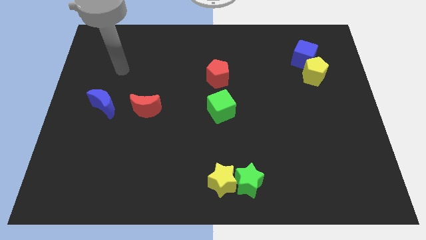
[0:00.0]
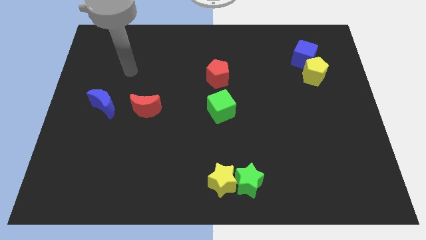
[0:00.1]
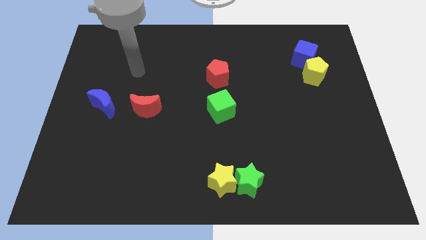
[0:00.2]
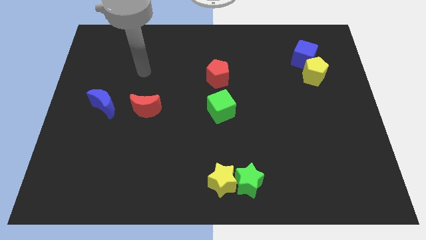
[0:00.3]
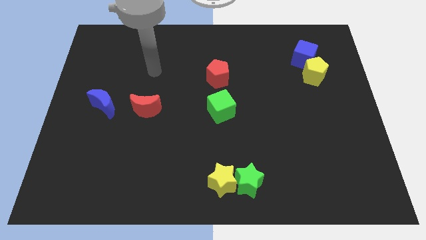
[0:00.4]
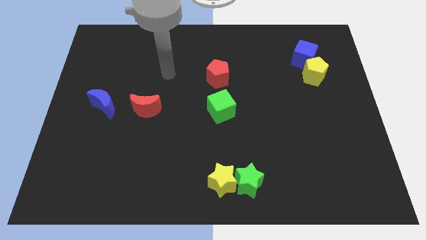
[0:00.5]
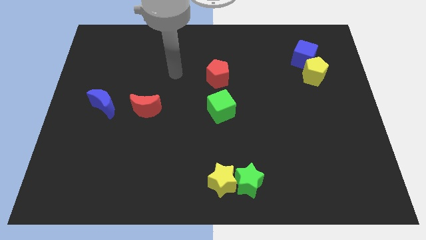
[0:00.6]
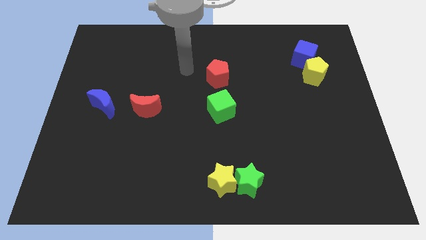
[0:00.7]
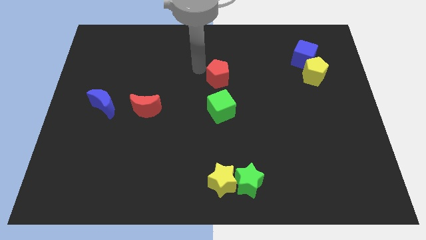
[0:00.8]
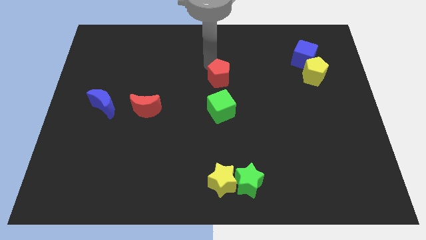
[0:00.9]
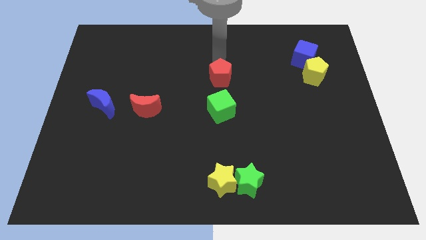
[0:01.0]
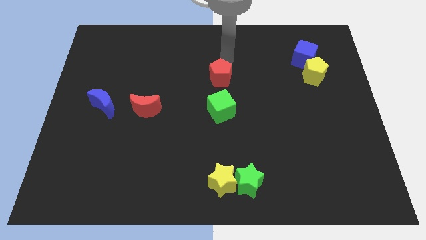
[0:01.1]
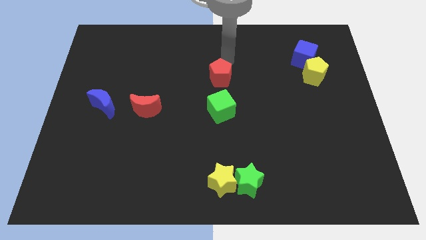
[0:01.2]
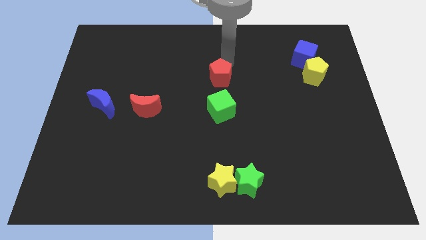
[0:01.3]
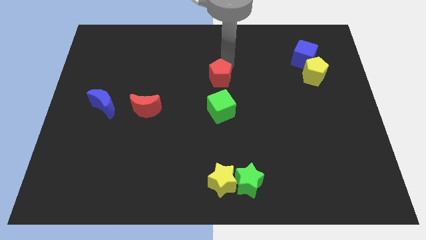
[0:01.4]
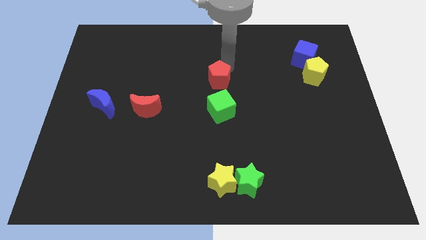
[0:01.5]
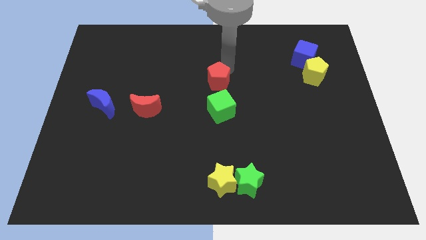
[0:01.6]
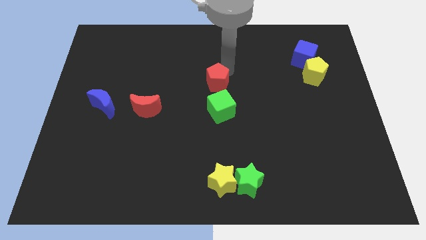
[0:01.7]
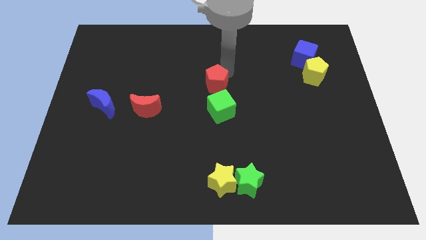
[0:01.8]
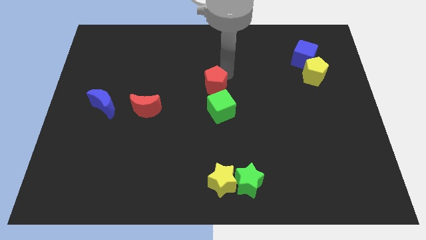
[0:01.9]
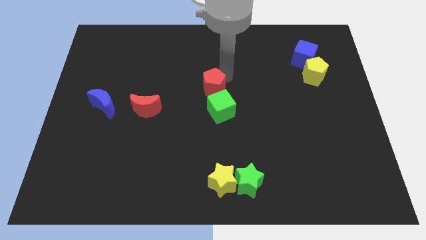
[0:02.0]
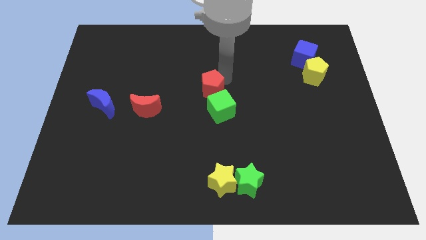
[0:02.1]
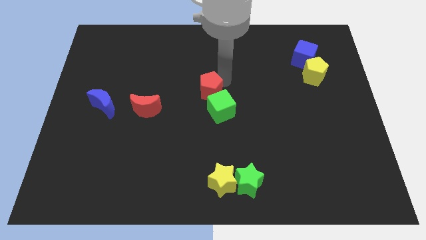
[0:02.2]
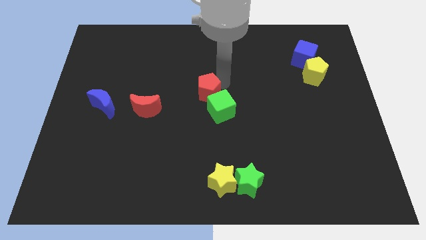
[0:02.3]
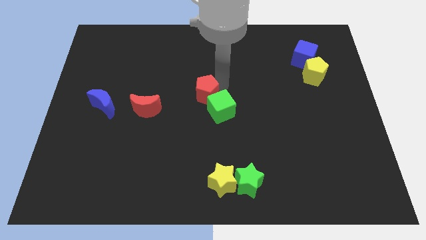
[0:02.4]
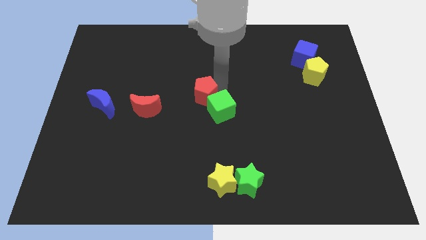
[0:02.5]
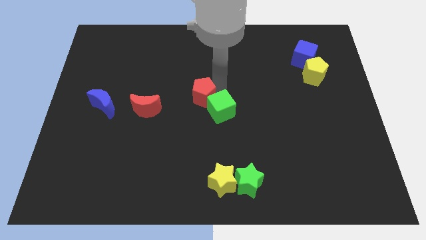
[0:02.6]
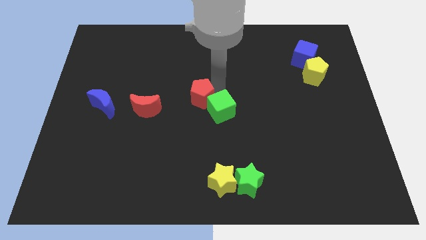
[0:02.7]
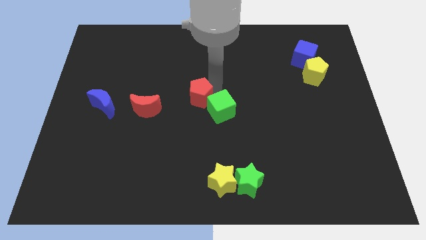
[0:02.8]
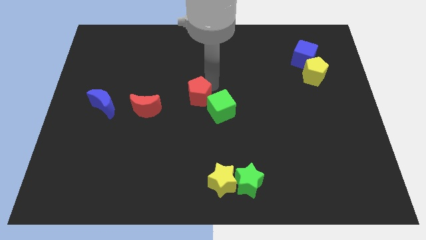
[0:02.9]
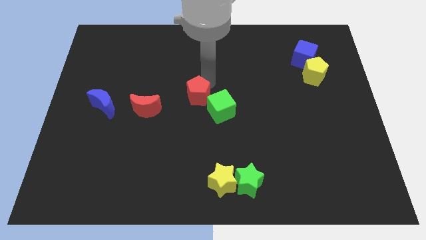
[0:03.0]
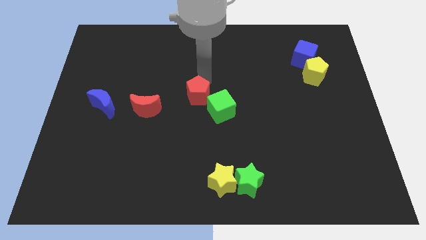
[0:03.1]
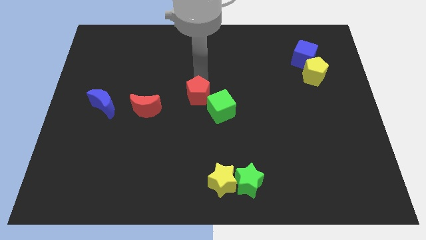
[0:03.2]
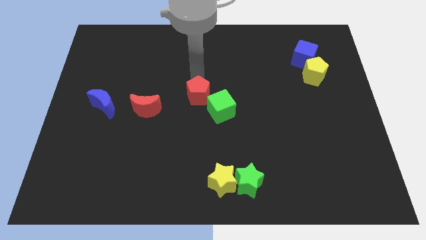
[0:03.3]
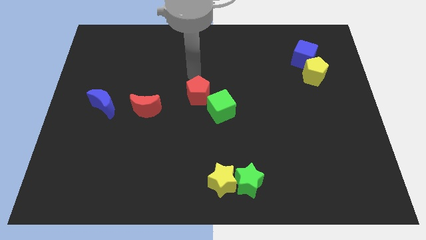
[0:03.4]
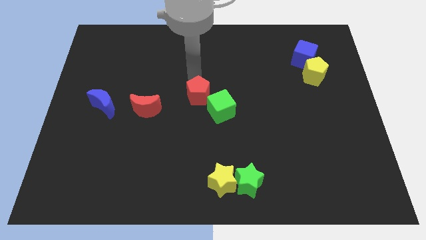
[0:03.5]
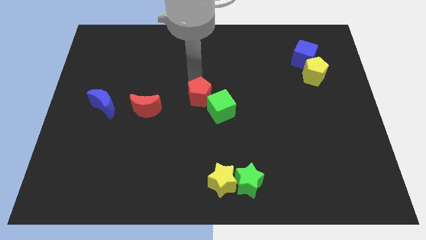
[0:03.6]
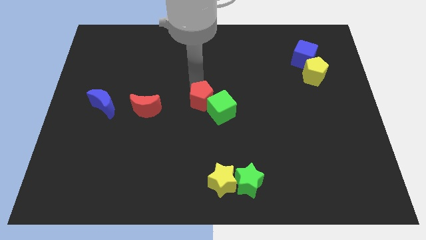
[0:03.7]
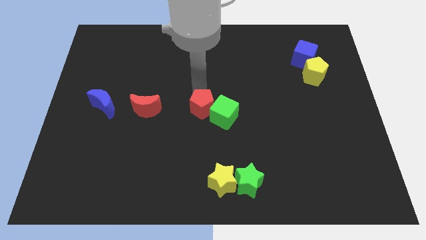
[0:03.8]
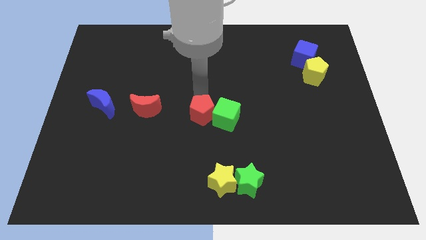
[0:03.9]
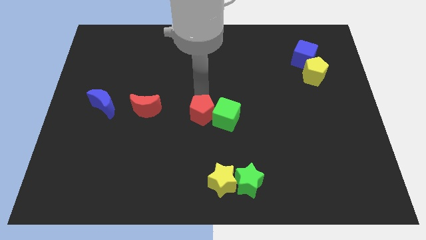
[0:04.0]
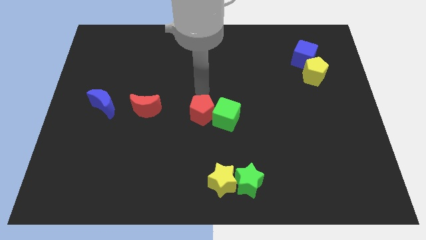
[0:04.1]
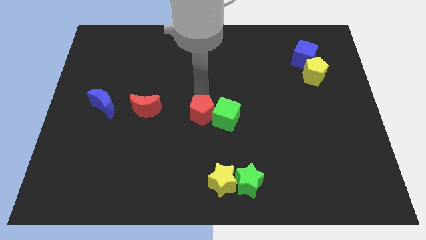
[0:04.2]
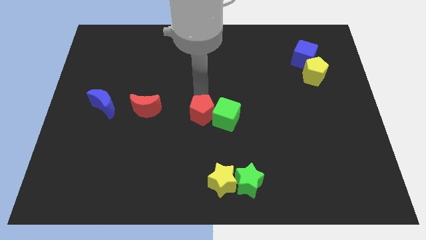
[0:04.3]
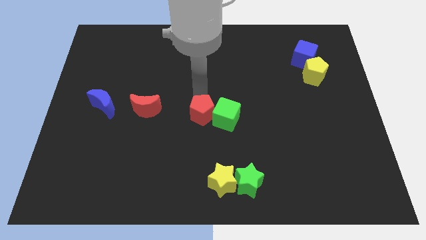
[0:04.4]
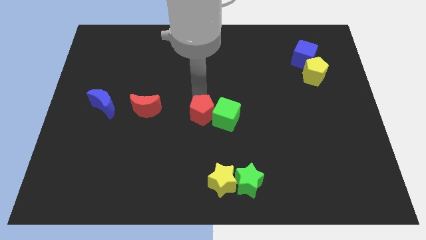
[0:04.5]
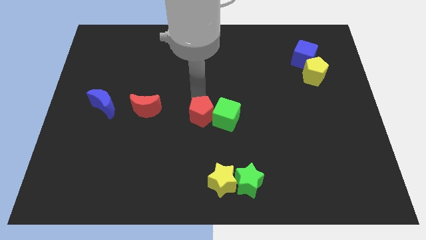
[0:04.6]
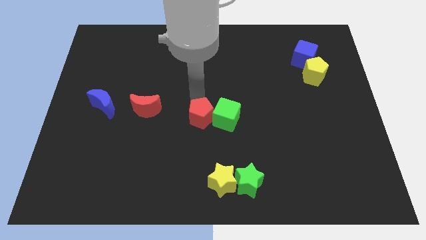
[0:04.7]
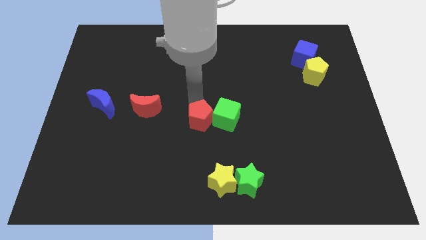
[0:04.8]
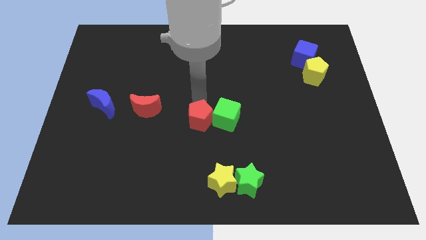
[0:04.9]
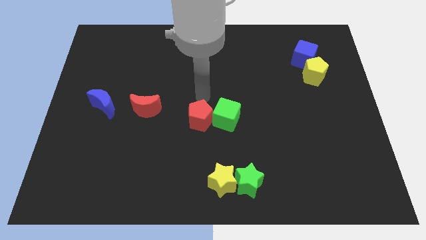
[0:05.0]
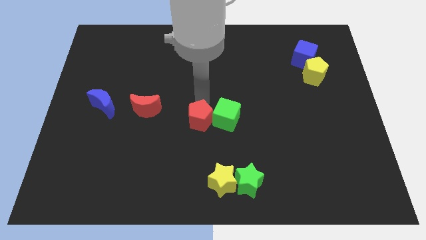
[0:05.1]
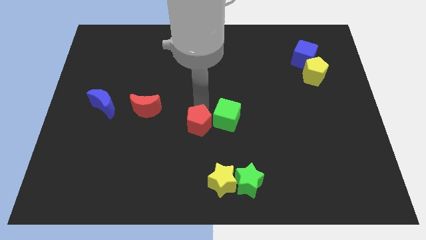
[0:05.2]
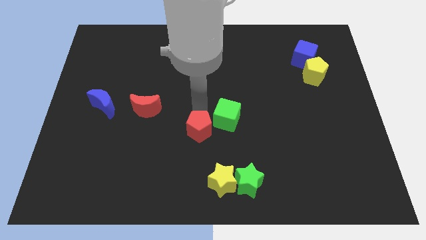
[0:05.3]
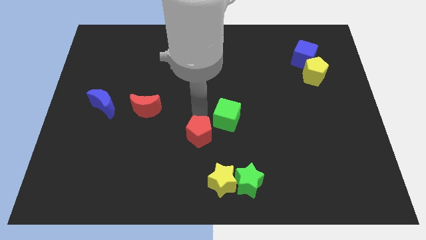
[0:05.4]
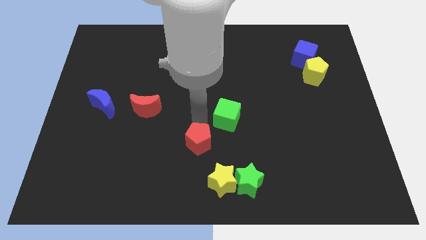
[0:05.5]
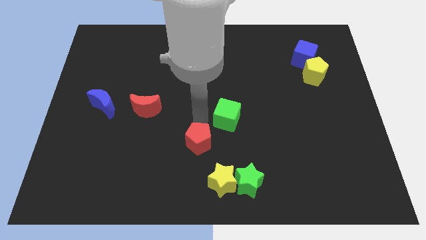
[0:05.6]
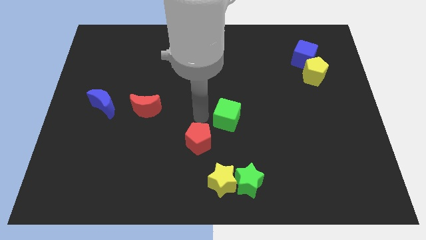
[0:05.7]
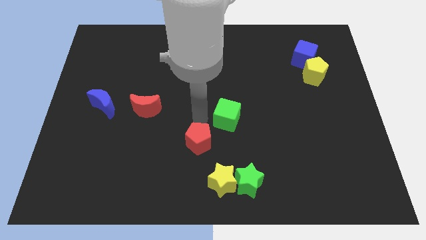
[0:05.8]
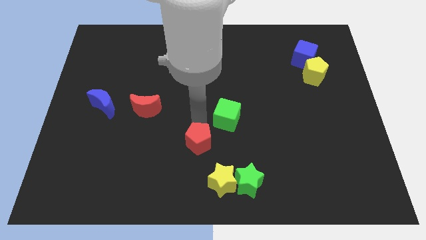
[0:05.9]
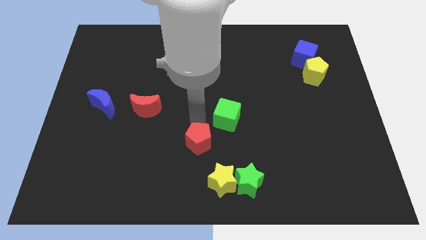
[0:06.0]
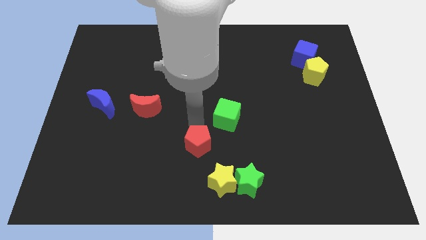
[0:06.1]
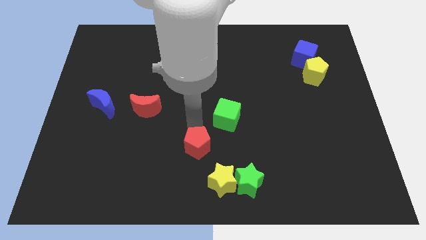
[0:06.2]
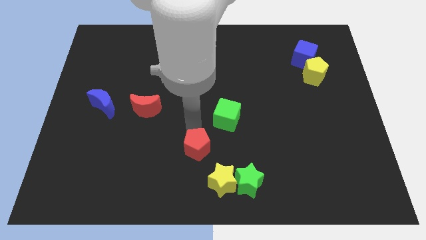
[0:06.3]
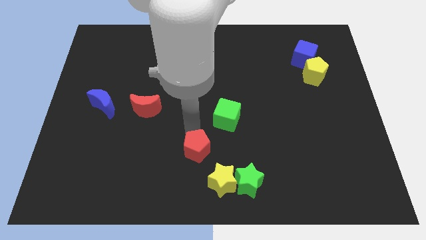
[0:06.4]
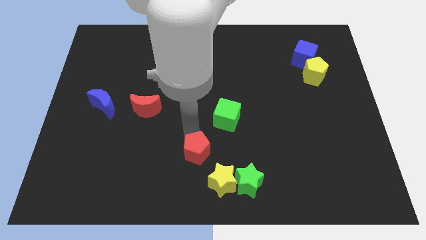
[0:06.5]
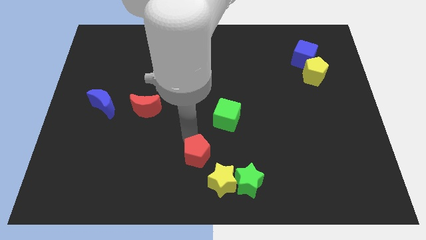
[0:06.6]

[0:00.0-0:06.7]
move the red pentagon to the bottom side
